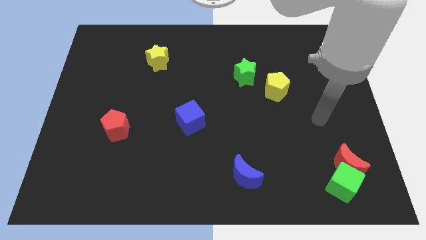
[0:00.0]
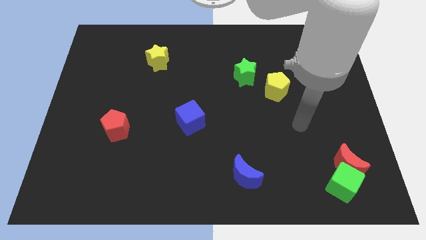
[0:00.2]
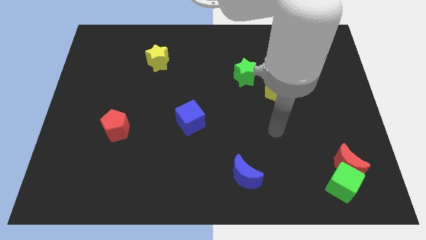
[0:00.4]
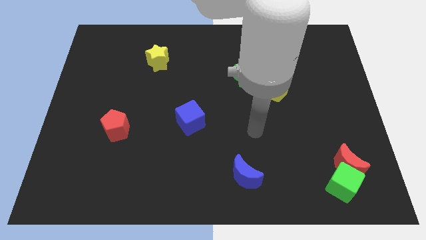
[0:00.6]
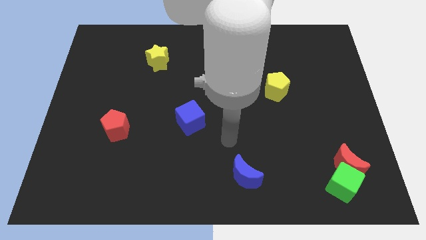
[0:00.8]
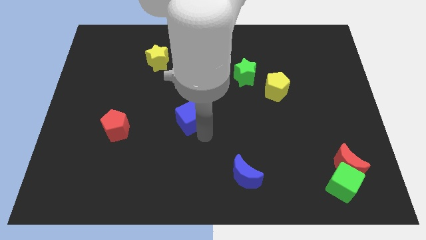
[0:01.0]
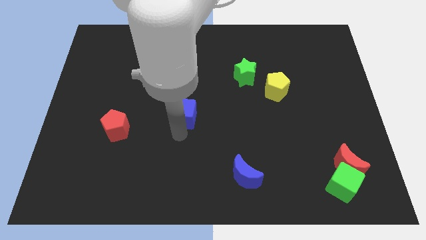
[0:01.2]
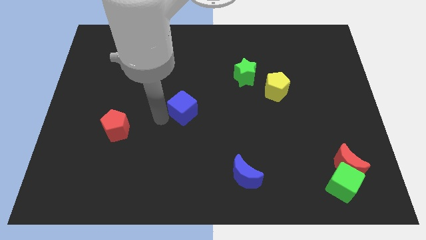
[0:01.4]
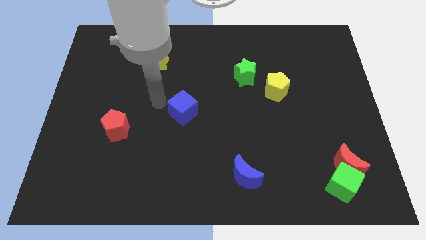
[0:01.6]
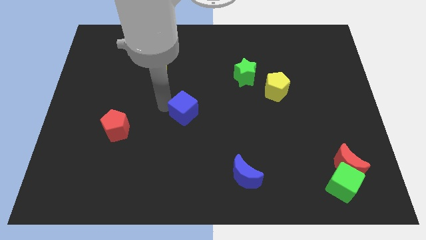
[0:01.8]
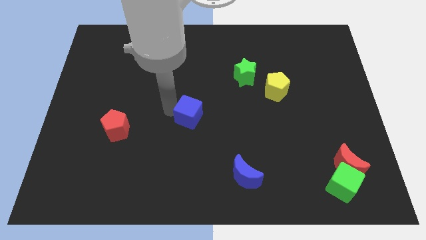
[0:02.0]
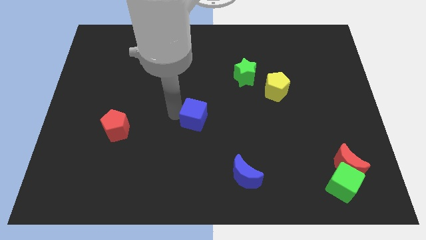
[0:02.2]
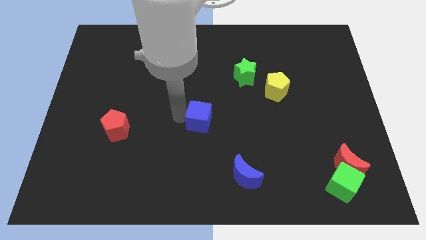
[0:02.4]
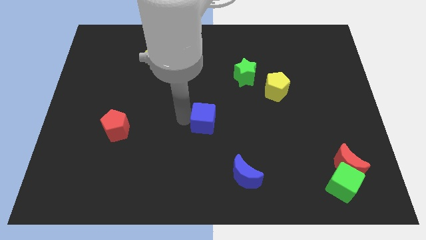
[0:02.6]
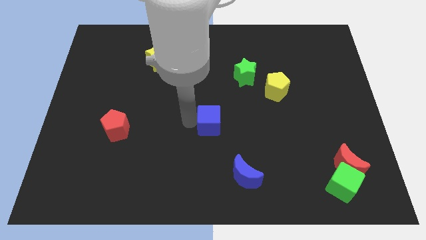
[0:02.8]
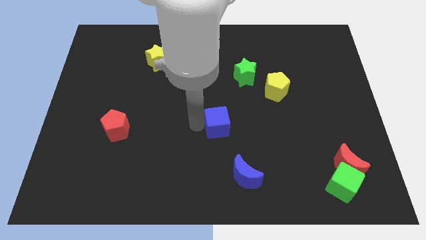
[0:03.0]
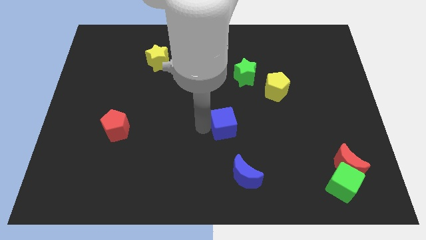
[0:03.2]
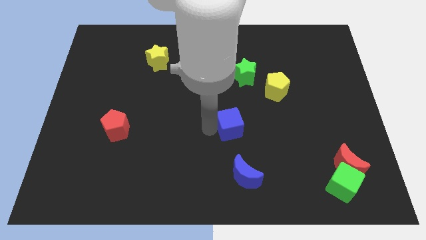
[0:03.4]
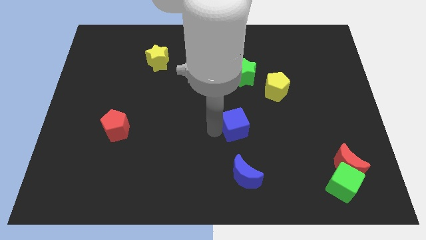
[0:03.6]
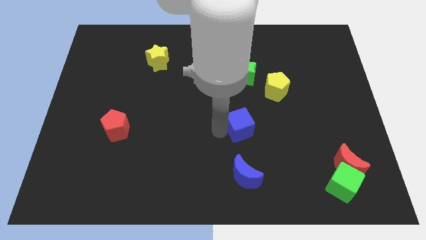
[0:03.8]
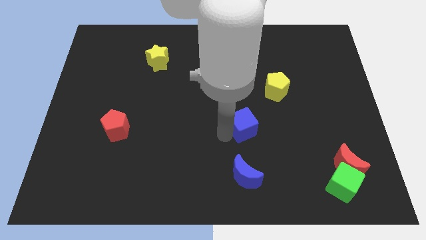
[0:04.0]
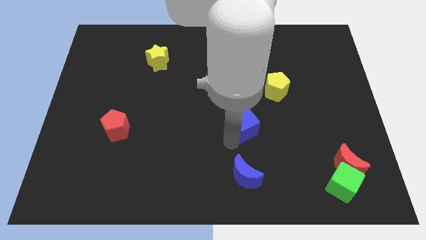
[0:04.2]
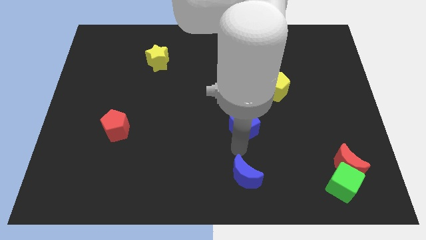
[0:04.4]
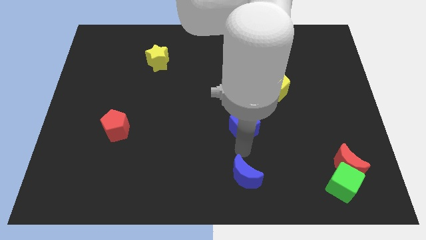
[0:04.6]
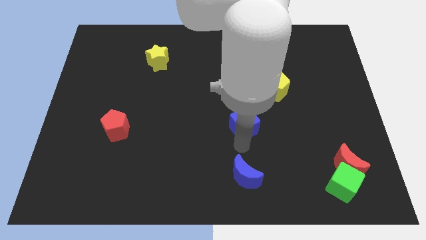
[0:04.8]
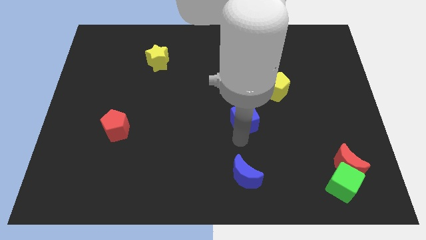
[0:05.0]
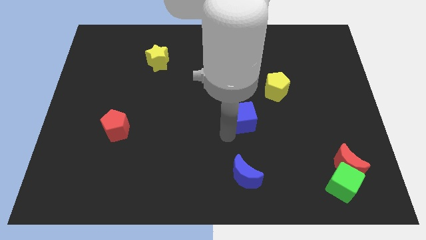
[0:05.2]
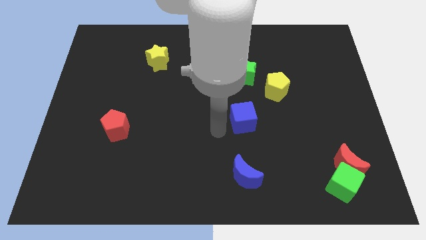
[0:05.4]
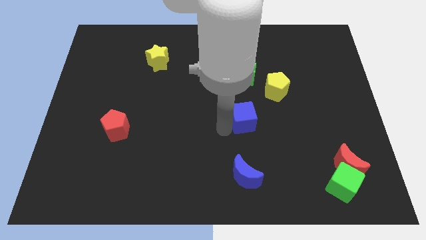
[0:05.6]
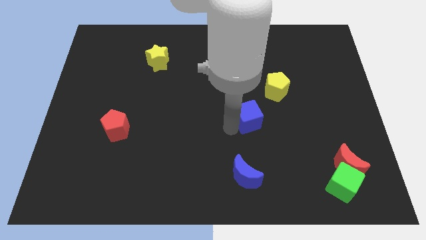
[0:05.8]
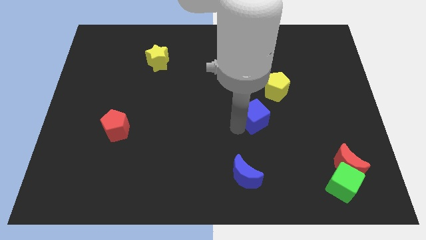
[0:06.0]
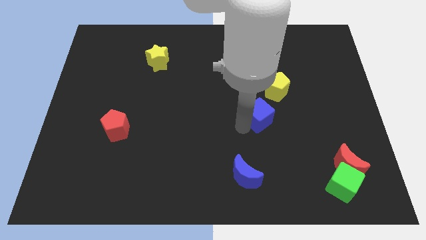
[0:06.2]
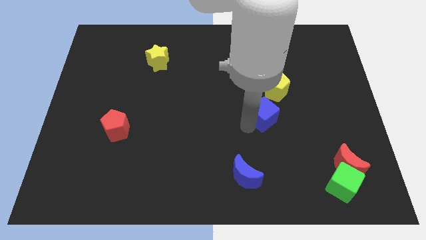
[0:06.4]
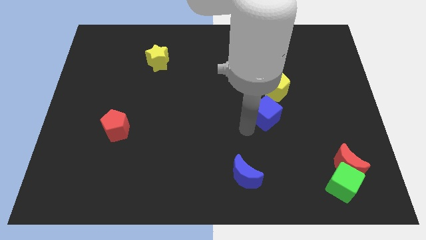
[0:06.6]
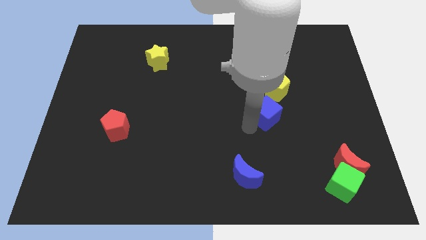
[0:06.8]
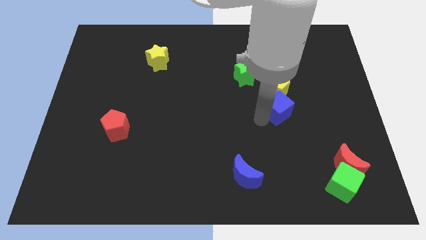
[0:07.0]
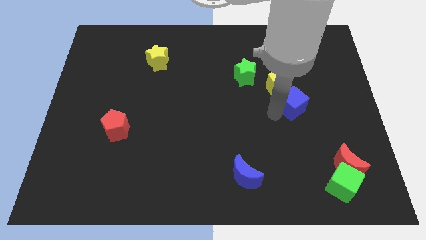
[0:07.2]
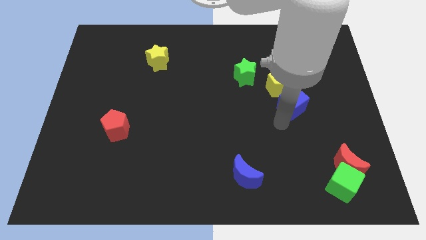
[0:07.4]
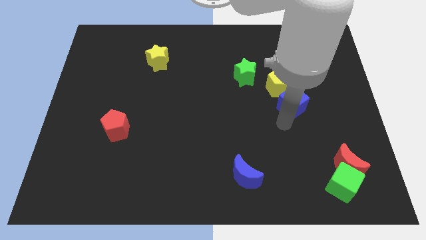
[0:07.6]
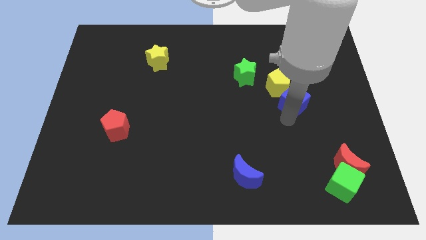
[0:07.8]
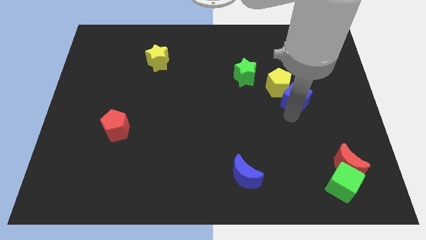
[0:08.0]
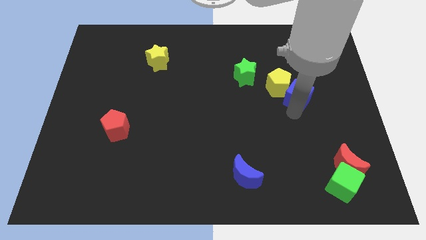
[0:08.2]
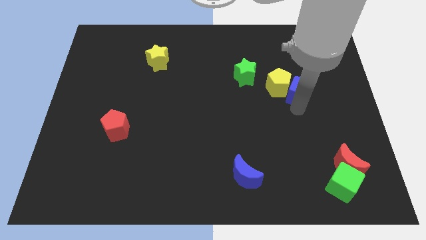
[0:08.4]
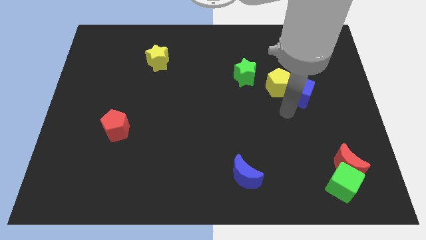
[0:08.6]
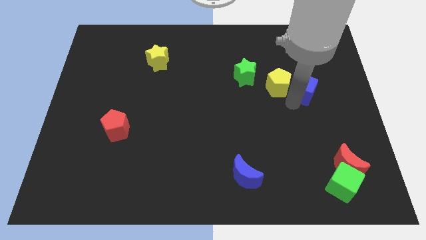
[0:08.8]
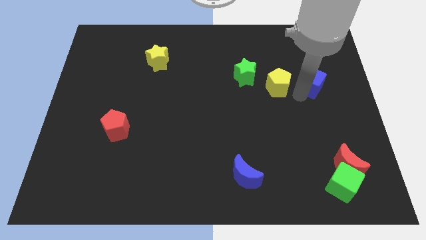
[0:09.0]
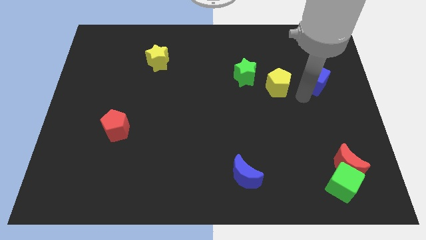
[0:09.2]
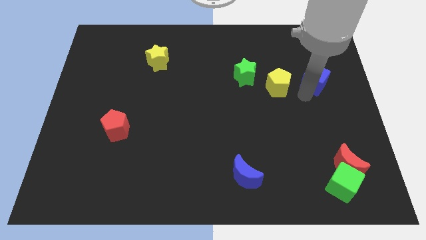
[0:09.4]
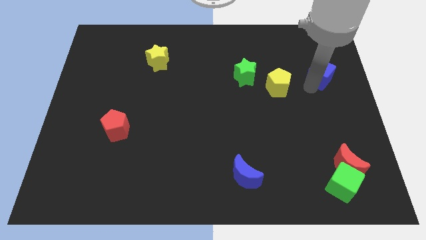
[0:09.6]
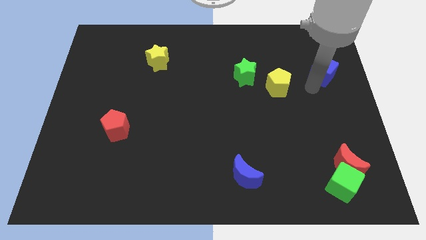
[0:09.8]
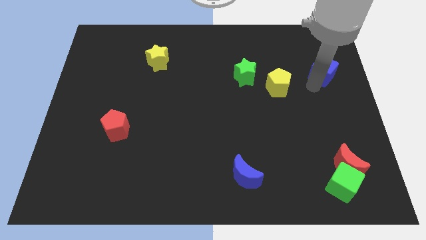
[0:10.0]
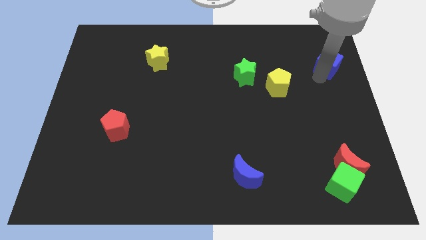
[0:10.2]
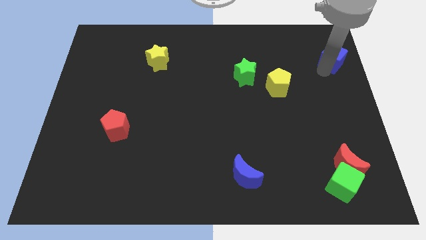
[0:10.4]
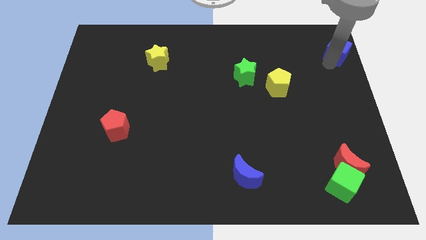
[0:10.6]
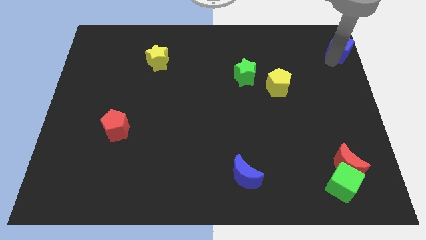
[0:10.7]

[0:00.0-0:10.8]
slide the blue cube to the upper right corner

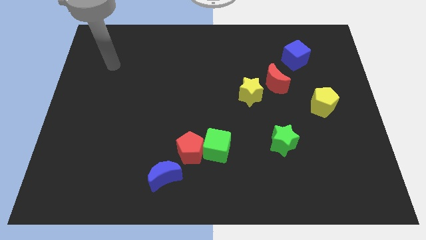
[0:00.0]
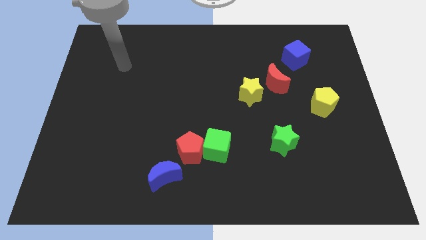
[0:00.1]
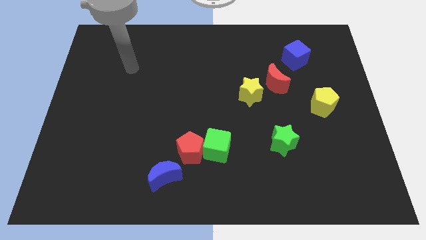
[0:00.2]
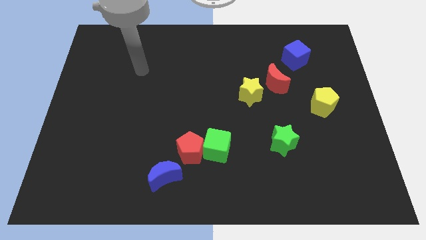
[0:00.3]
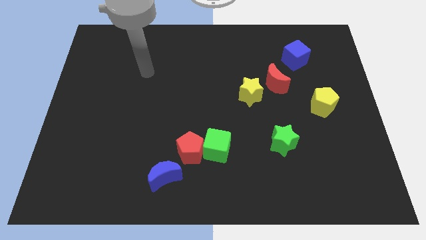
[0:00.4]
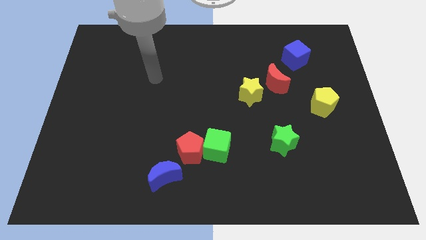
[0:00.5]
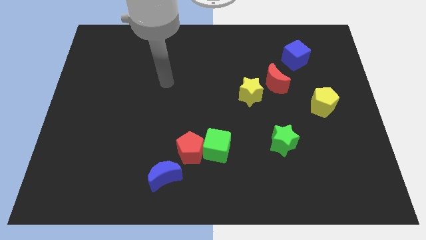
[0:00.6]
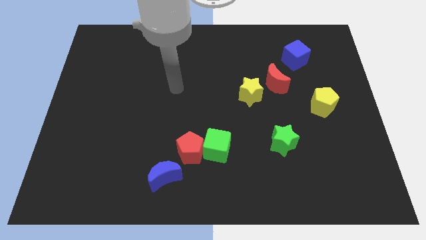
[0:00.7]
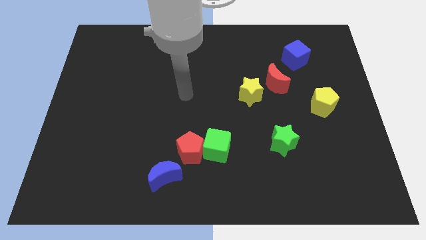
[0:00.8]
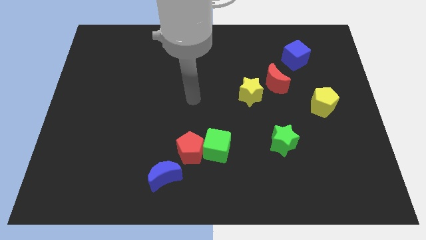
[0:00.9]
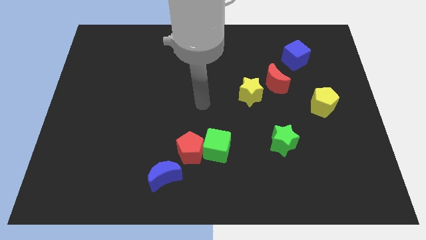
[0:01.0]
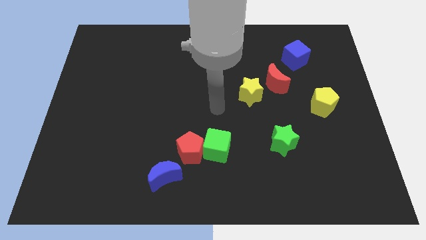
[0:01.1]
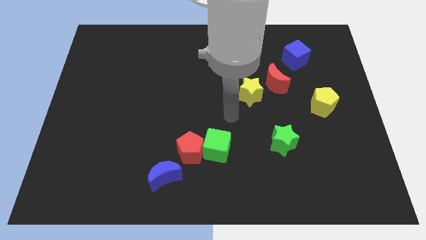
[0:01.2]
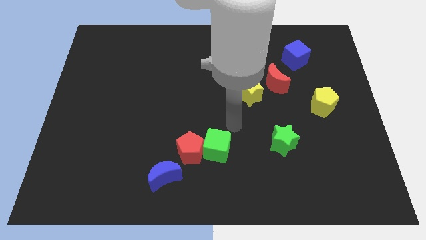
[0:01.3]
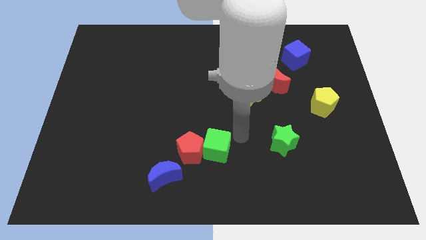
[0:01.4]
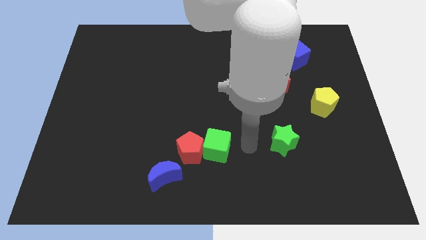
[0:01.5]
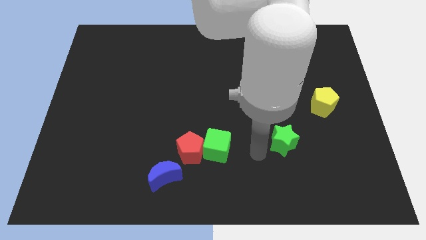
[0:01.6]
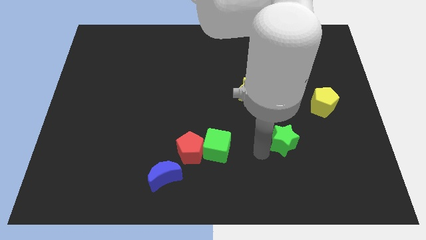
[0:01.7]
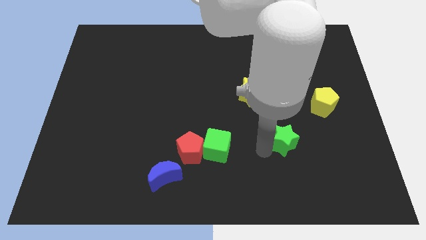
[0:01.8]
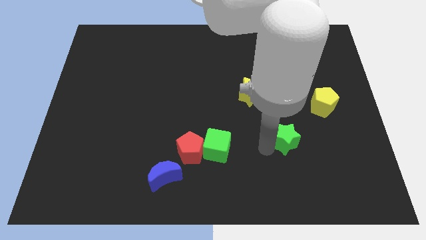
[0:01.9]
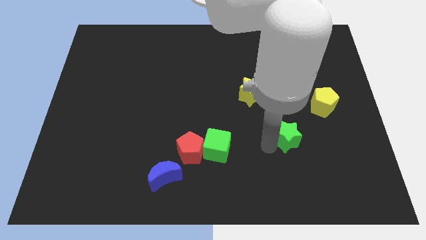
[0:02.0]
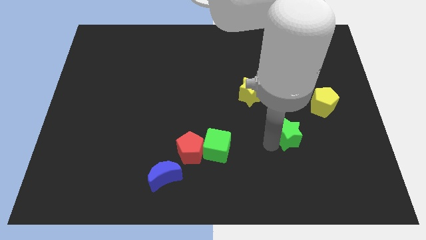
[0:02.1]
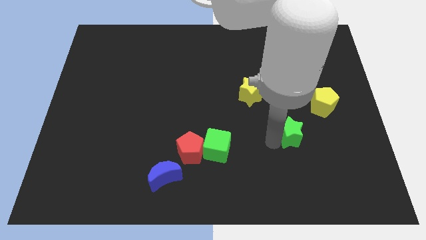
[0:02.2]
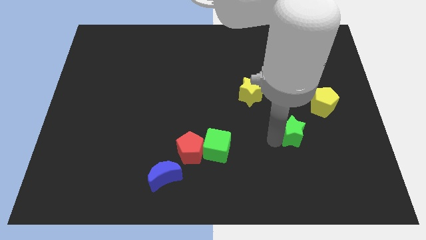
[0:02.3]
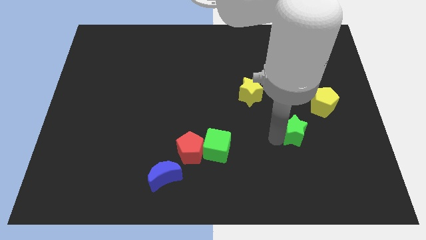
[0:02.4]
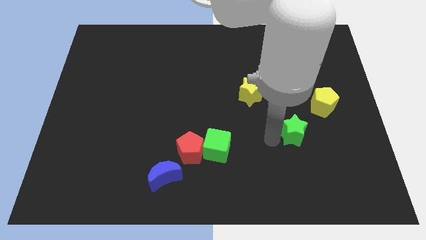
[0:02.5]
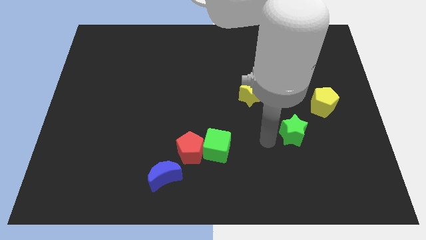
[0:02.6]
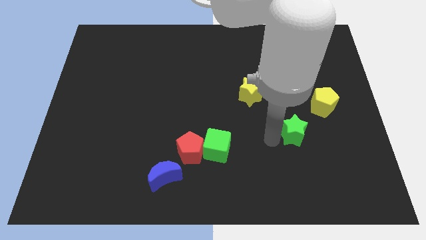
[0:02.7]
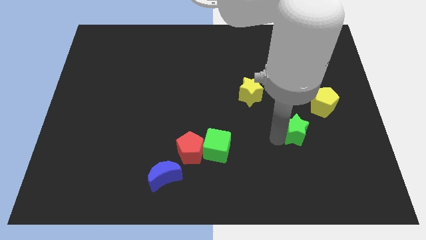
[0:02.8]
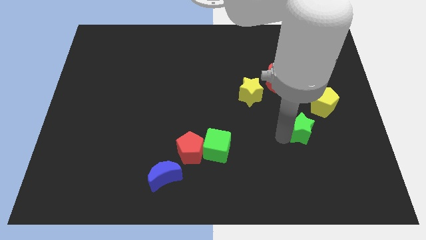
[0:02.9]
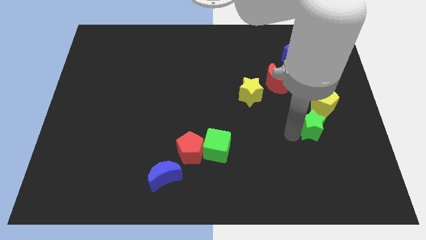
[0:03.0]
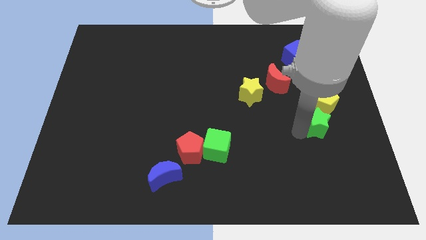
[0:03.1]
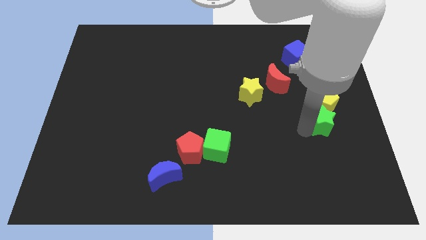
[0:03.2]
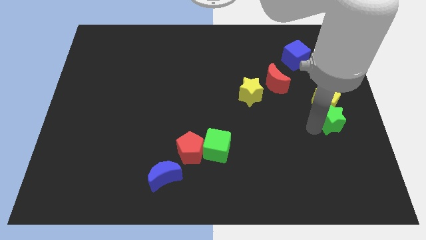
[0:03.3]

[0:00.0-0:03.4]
slide the green star to the right side
